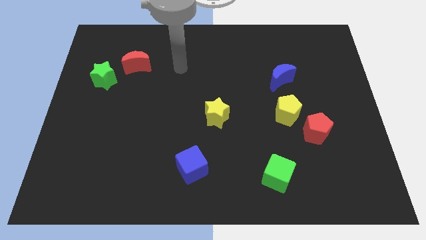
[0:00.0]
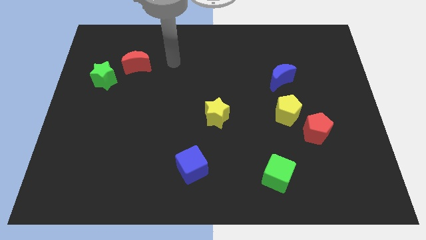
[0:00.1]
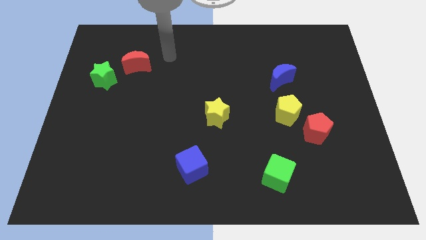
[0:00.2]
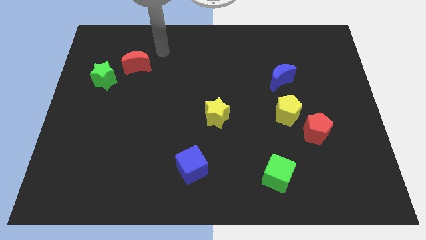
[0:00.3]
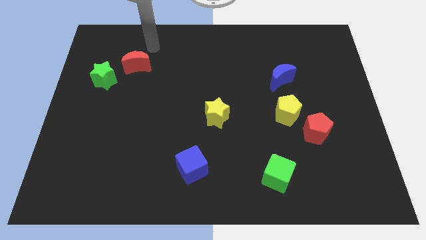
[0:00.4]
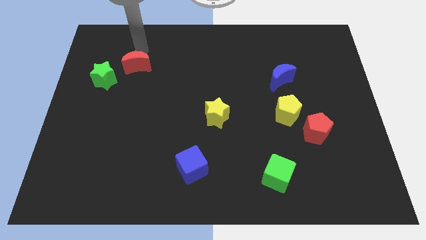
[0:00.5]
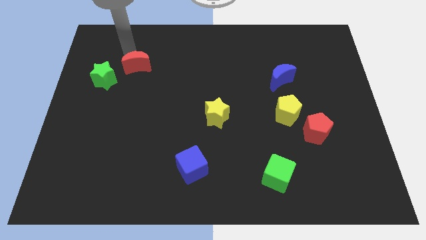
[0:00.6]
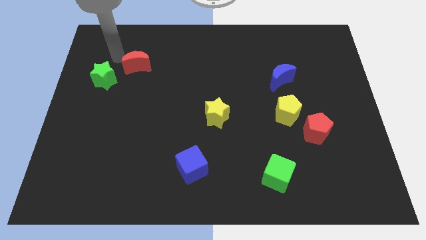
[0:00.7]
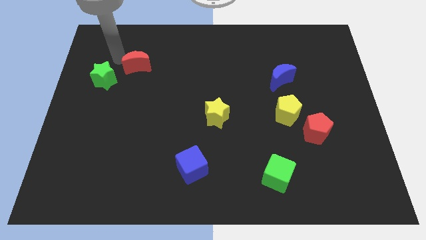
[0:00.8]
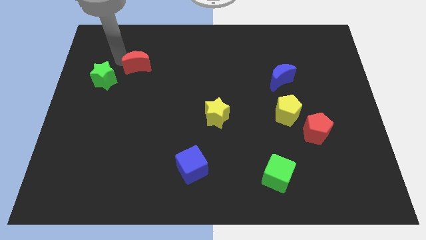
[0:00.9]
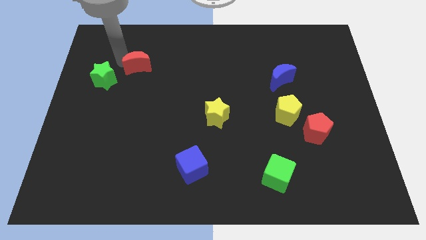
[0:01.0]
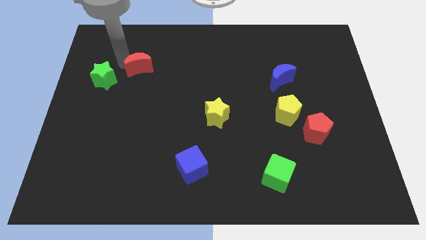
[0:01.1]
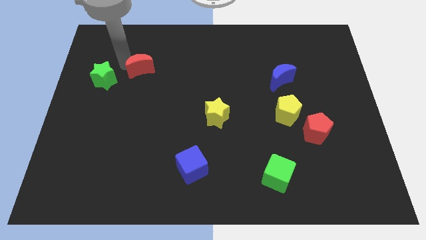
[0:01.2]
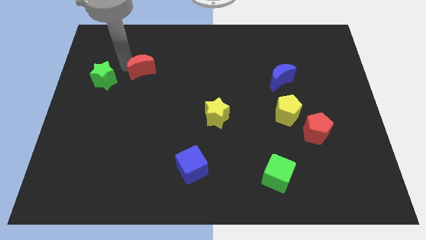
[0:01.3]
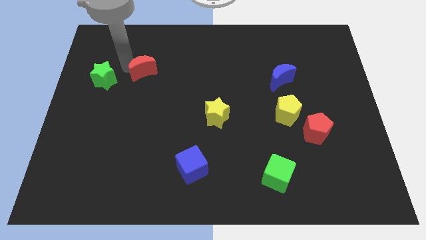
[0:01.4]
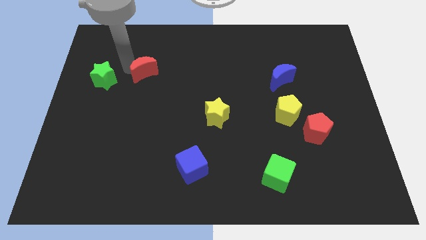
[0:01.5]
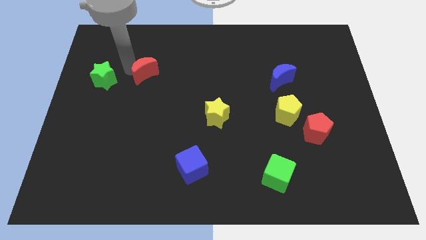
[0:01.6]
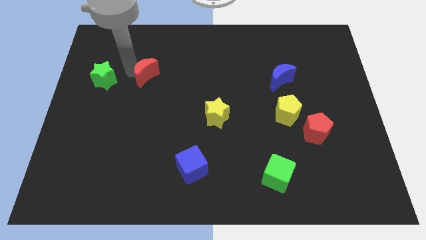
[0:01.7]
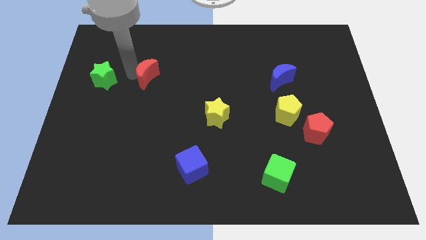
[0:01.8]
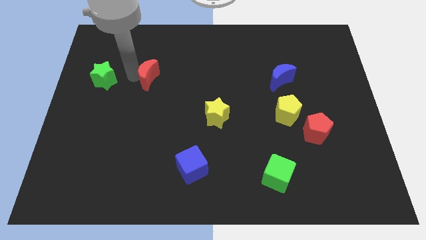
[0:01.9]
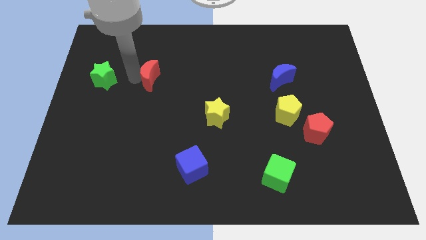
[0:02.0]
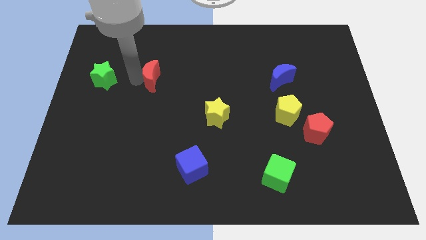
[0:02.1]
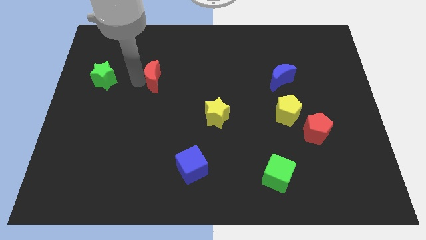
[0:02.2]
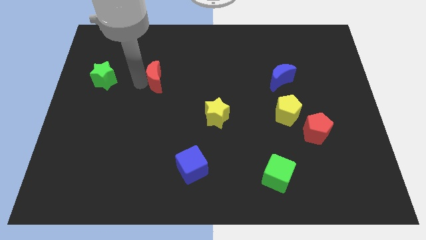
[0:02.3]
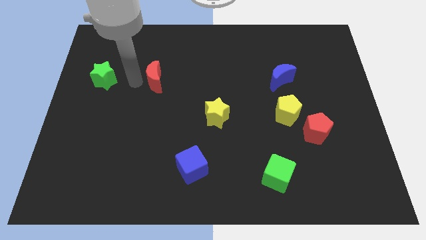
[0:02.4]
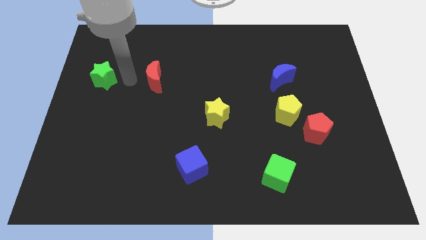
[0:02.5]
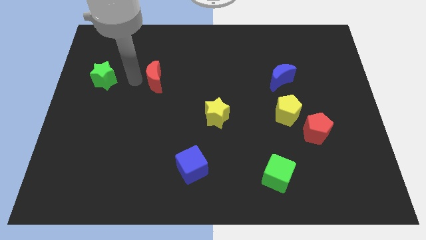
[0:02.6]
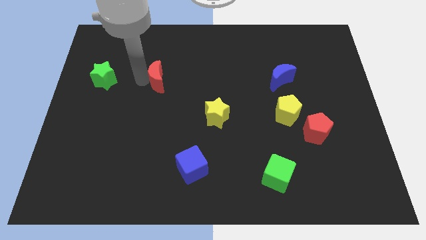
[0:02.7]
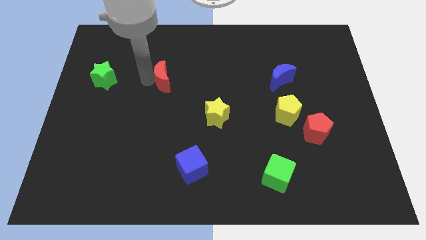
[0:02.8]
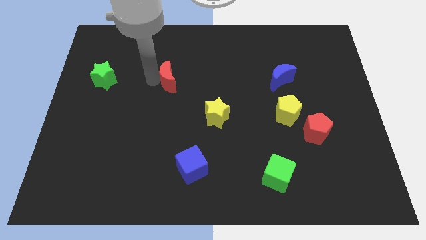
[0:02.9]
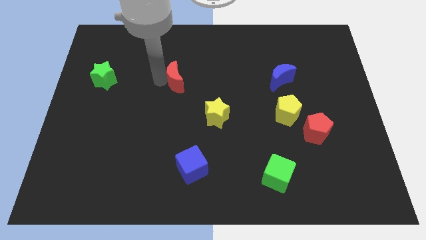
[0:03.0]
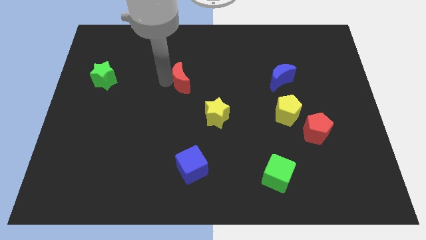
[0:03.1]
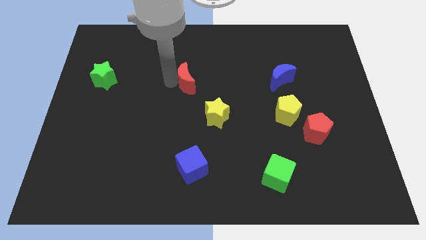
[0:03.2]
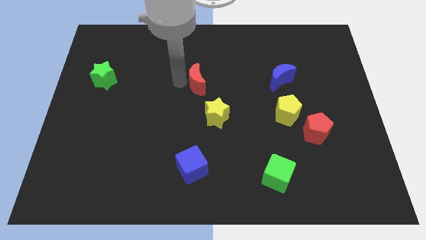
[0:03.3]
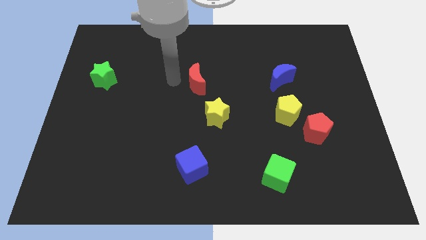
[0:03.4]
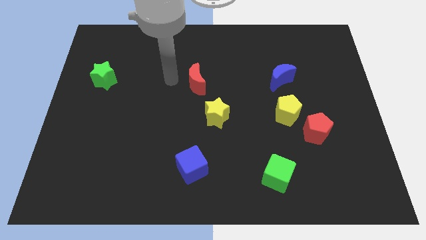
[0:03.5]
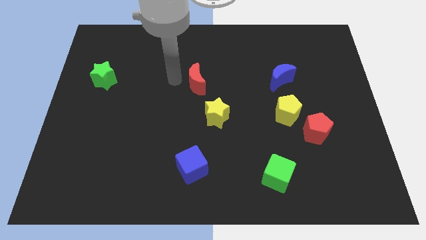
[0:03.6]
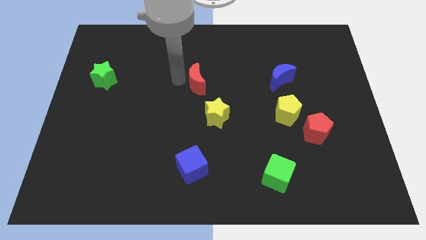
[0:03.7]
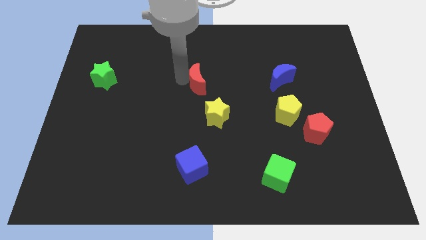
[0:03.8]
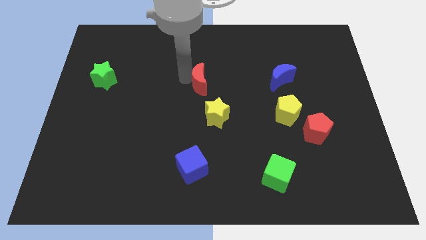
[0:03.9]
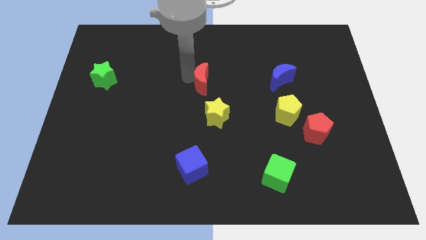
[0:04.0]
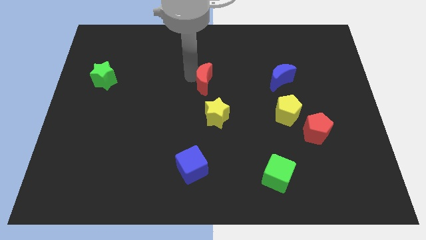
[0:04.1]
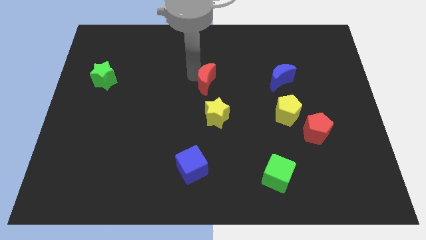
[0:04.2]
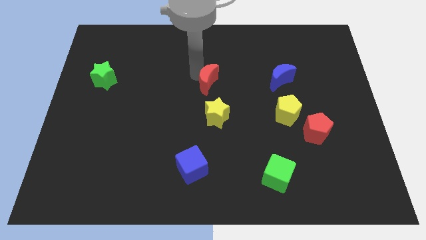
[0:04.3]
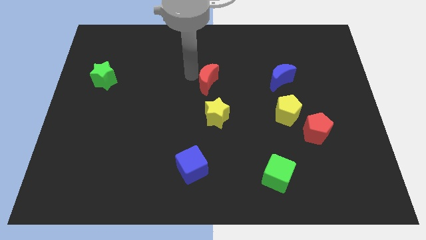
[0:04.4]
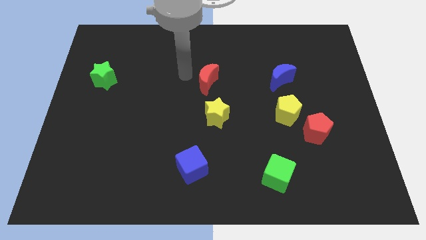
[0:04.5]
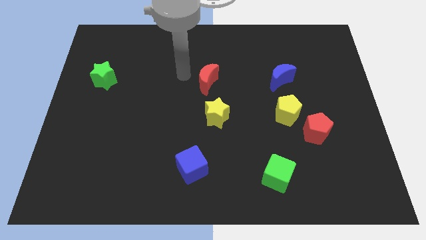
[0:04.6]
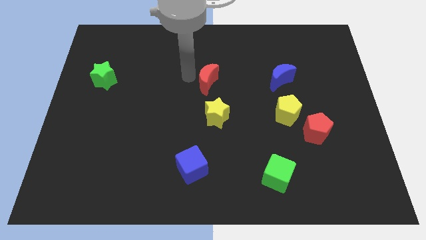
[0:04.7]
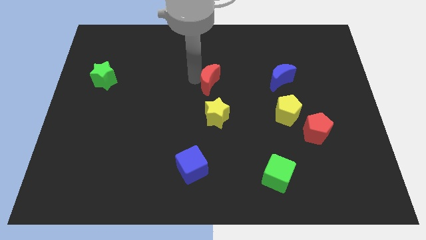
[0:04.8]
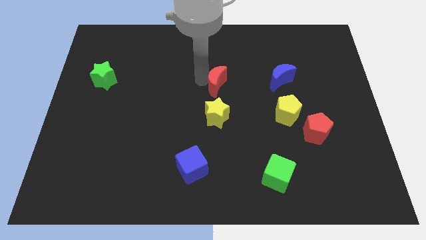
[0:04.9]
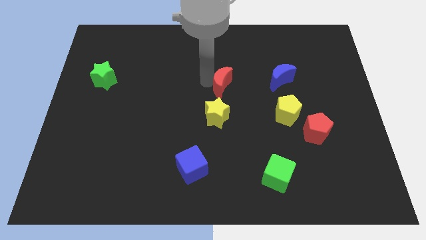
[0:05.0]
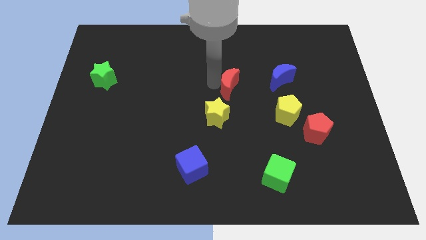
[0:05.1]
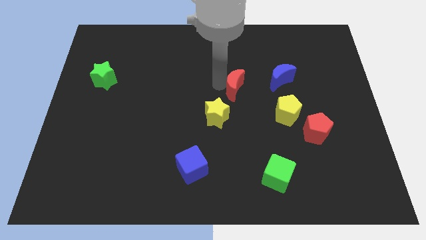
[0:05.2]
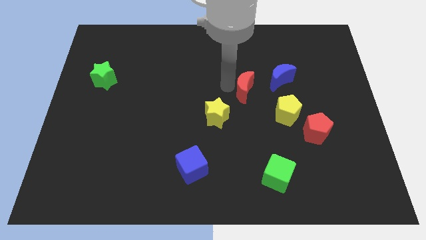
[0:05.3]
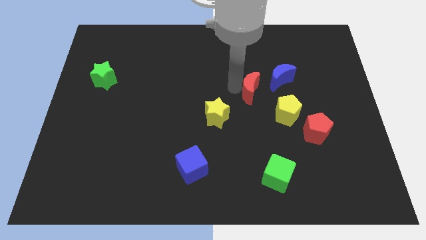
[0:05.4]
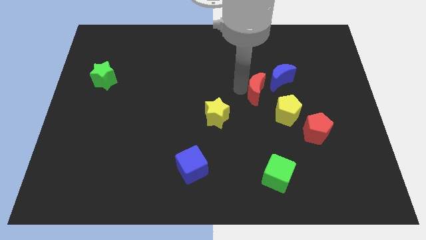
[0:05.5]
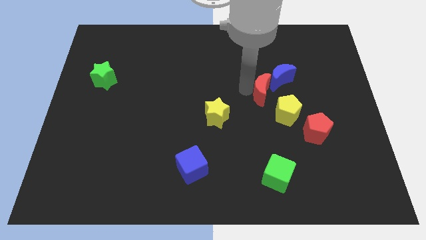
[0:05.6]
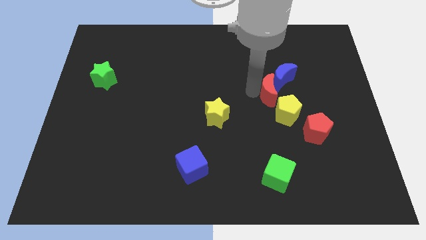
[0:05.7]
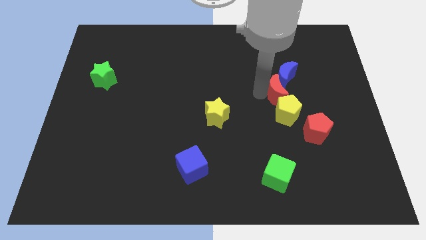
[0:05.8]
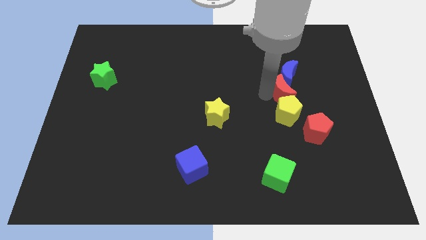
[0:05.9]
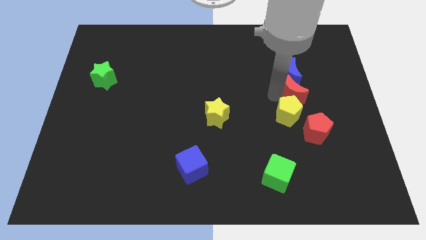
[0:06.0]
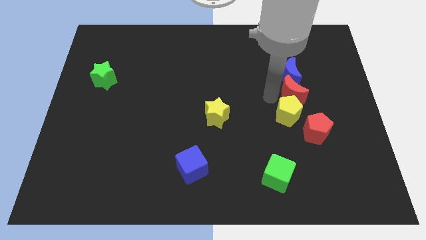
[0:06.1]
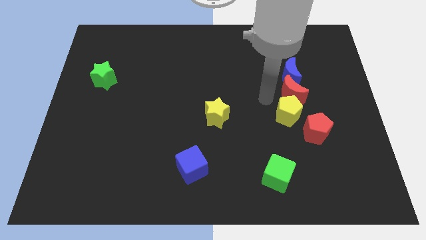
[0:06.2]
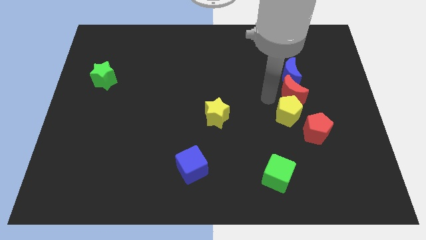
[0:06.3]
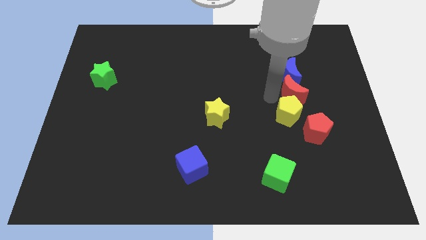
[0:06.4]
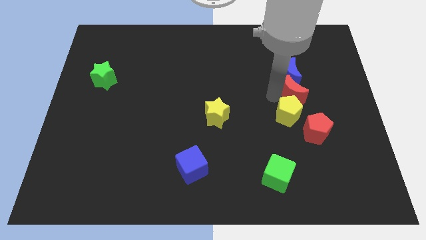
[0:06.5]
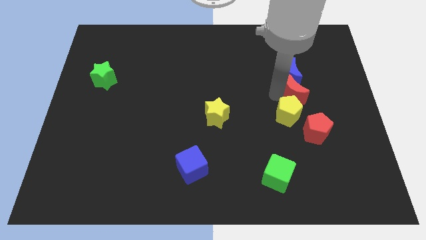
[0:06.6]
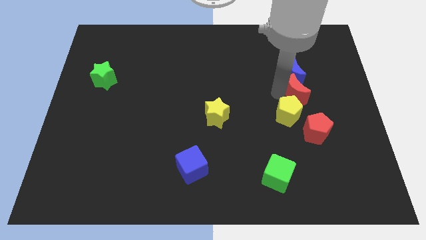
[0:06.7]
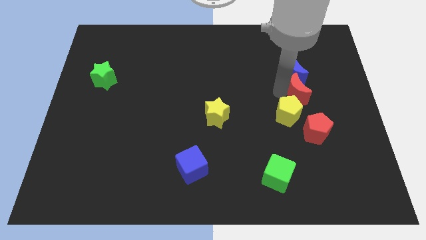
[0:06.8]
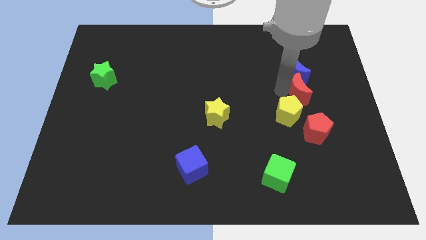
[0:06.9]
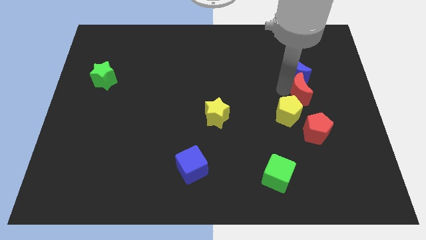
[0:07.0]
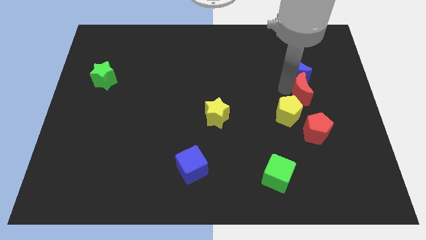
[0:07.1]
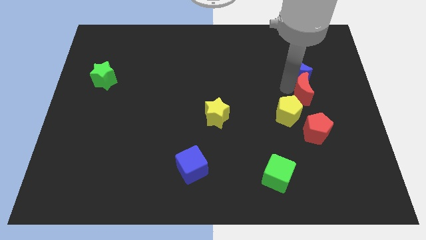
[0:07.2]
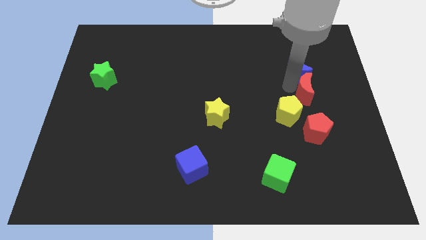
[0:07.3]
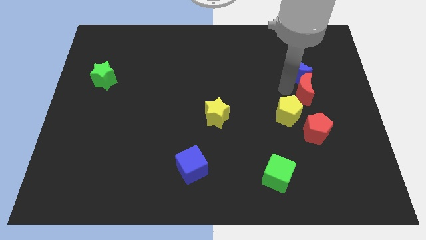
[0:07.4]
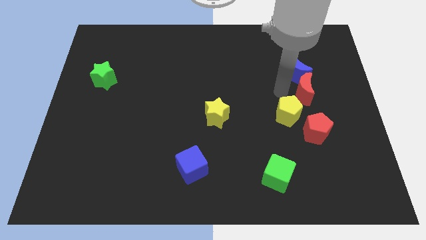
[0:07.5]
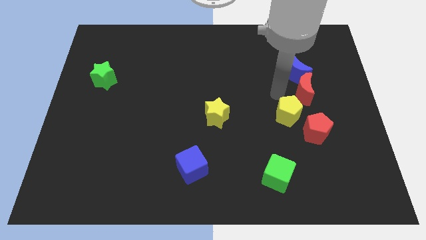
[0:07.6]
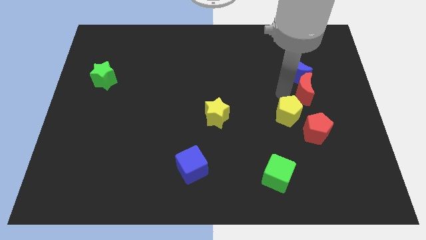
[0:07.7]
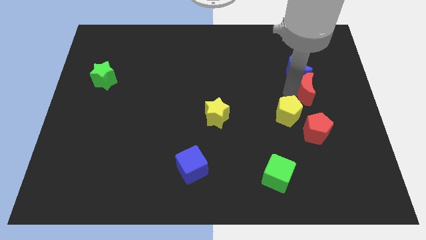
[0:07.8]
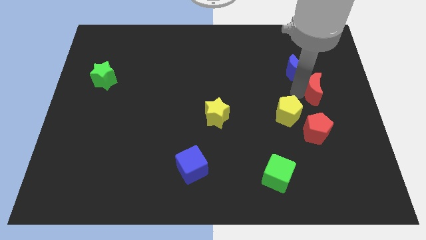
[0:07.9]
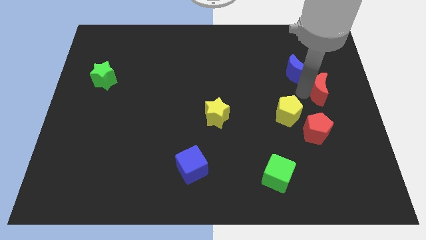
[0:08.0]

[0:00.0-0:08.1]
put the red moon to the center right
